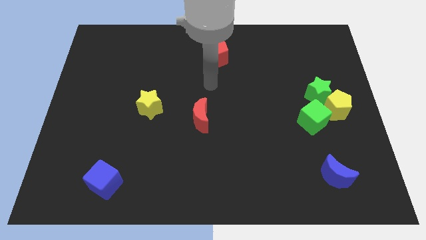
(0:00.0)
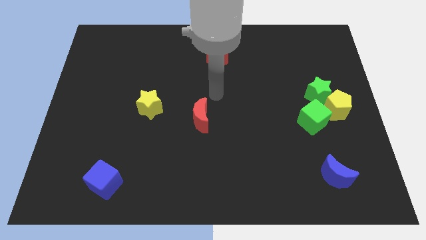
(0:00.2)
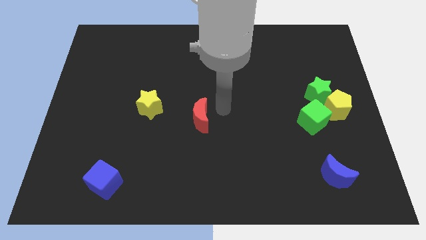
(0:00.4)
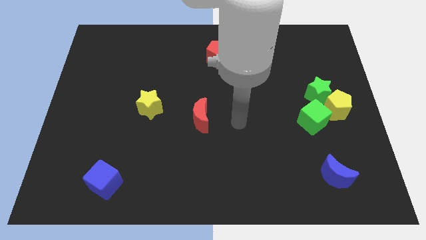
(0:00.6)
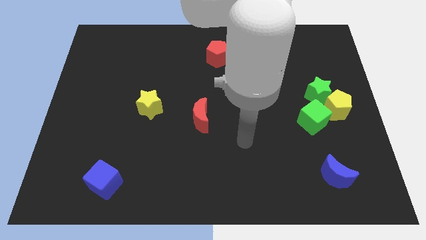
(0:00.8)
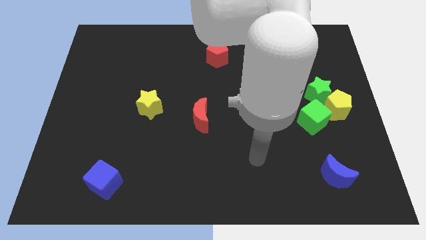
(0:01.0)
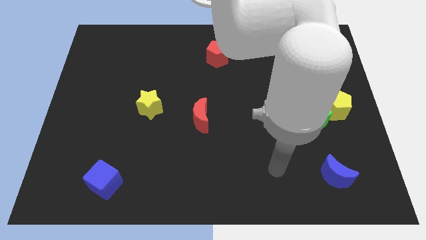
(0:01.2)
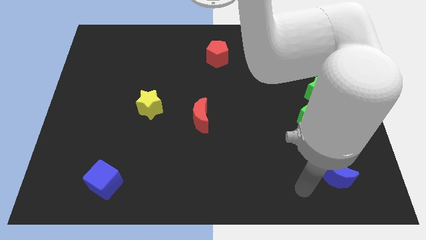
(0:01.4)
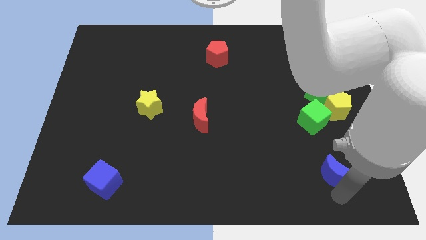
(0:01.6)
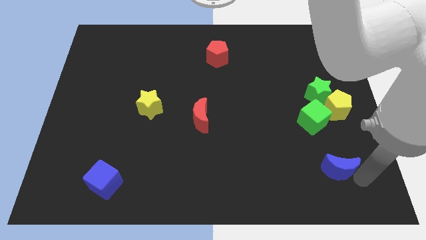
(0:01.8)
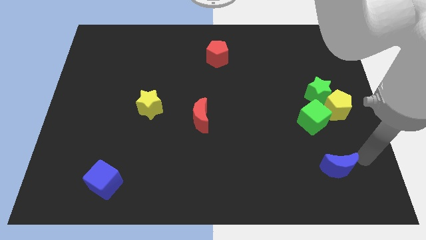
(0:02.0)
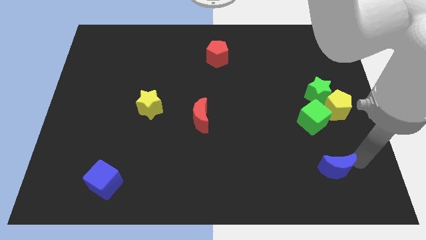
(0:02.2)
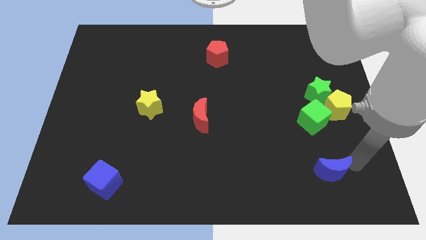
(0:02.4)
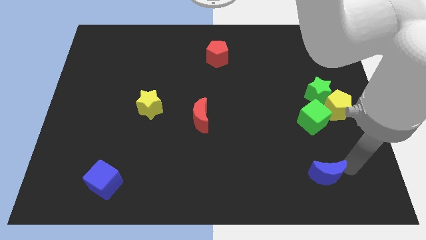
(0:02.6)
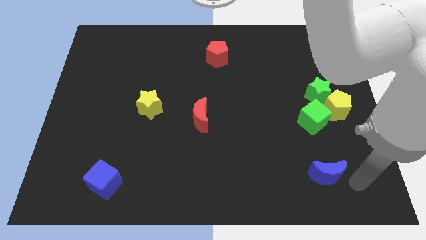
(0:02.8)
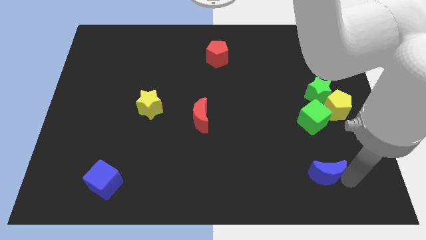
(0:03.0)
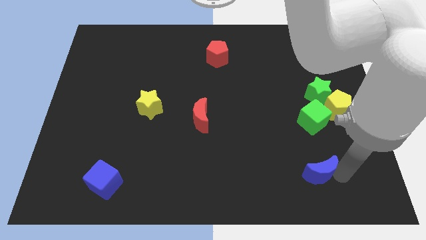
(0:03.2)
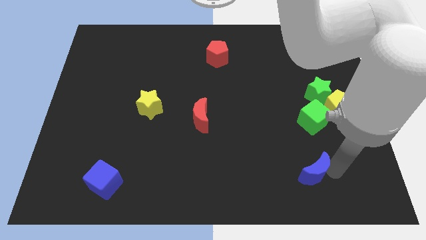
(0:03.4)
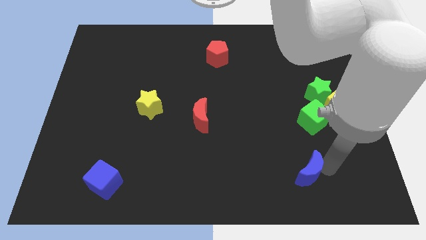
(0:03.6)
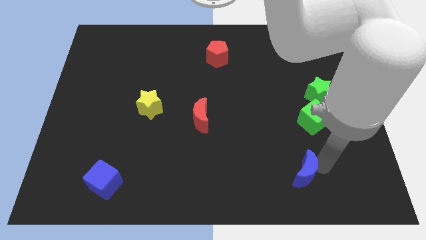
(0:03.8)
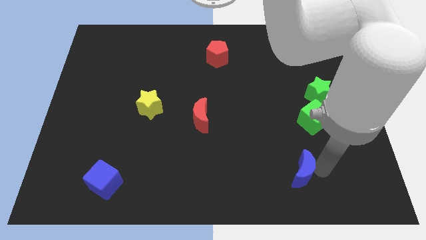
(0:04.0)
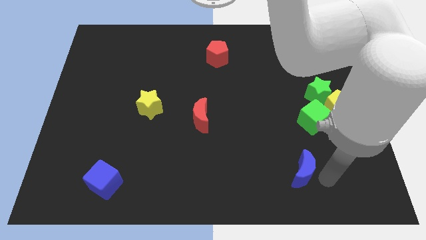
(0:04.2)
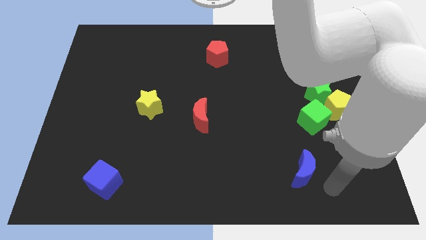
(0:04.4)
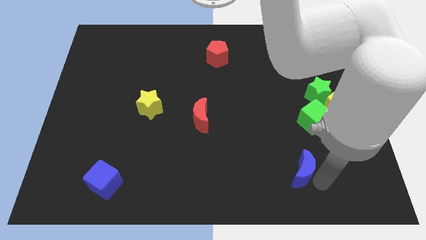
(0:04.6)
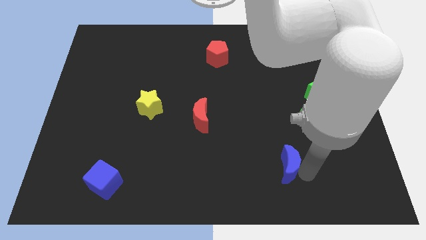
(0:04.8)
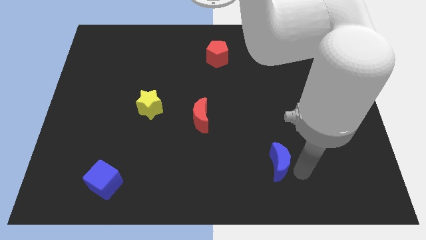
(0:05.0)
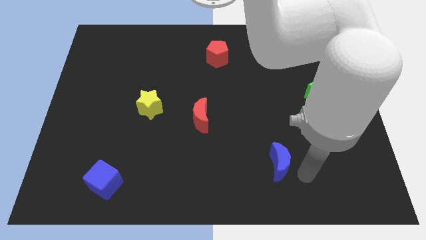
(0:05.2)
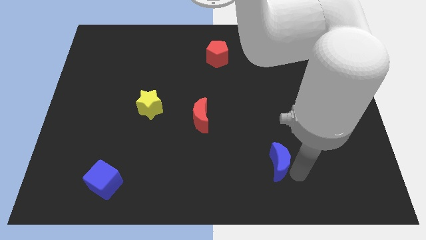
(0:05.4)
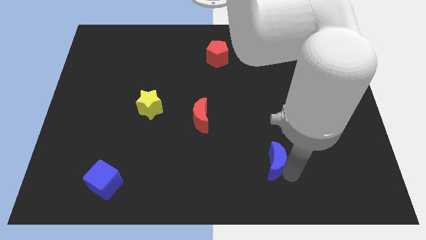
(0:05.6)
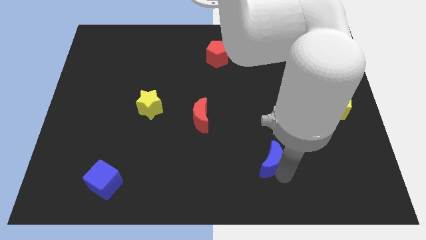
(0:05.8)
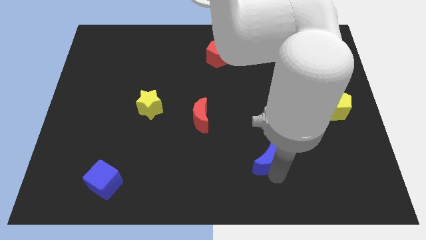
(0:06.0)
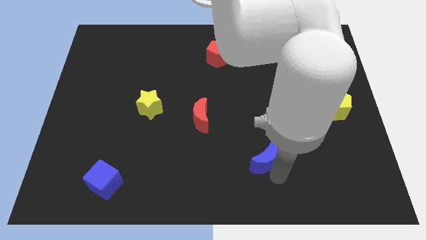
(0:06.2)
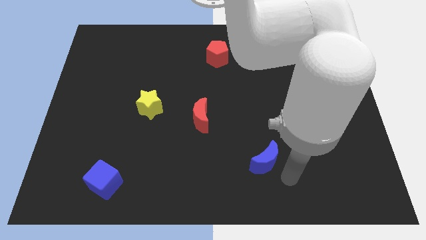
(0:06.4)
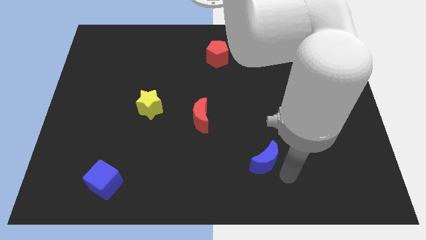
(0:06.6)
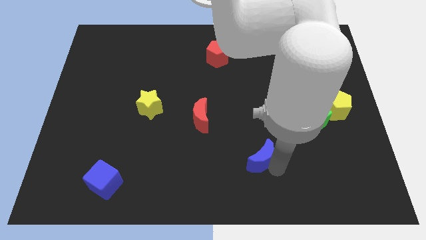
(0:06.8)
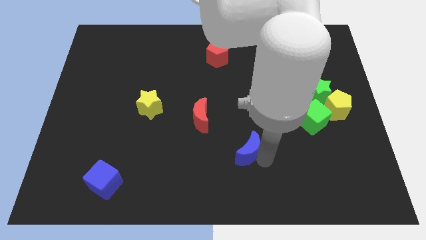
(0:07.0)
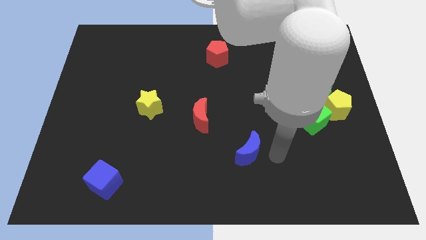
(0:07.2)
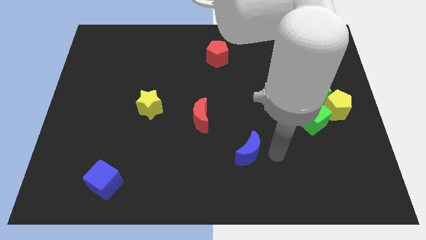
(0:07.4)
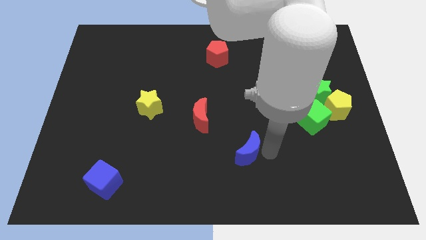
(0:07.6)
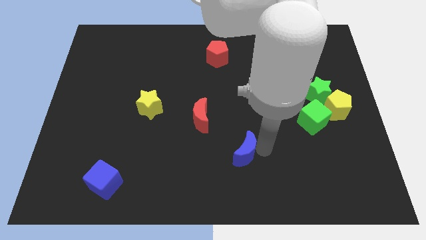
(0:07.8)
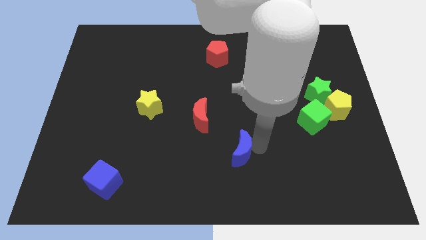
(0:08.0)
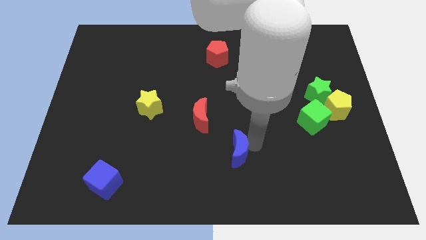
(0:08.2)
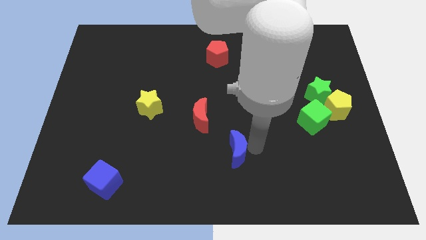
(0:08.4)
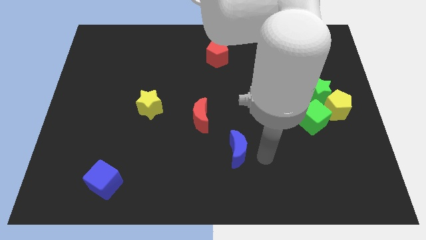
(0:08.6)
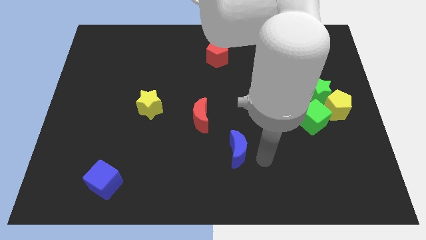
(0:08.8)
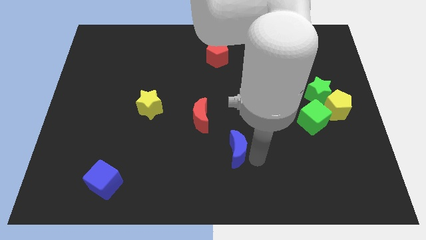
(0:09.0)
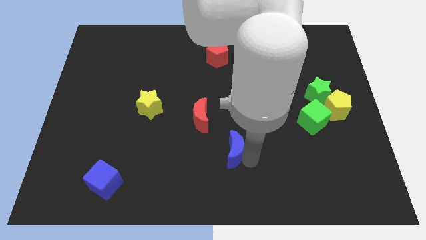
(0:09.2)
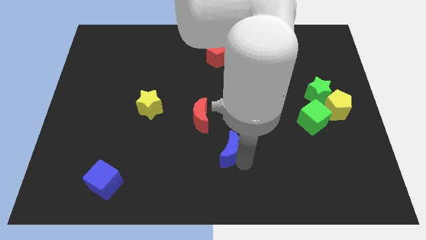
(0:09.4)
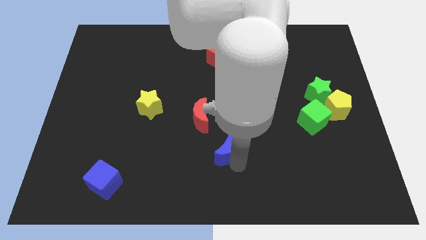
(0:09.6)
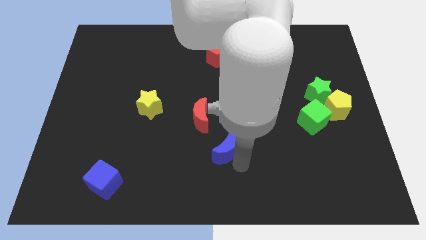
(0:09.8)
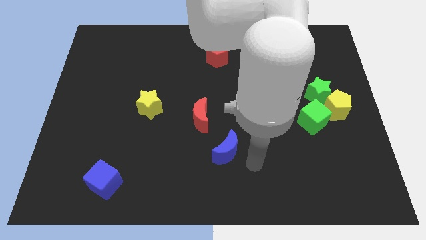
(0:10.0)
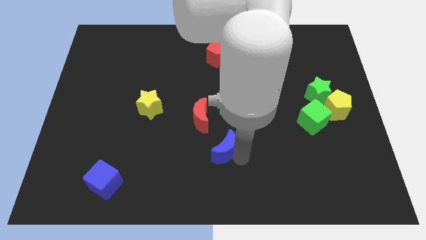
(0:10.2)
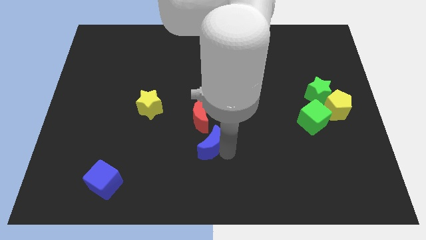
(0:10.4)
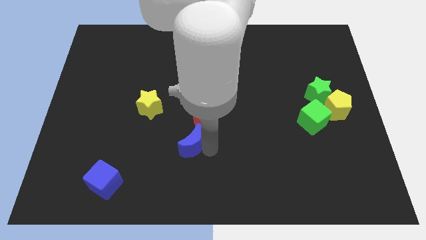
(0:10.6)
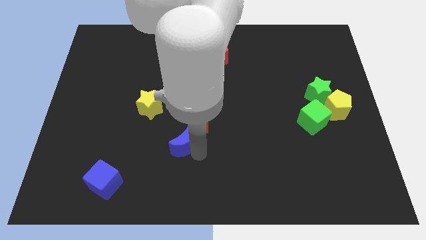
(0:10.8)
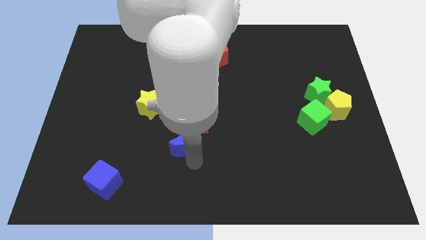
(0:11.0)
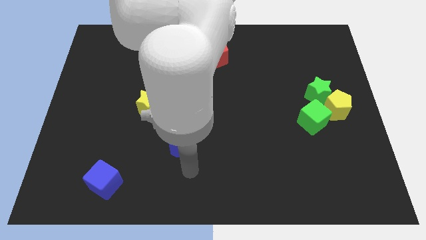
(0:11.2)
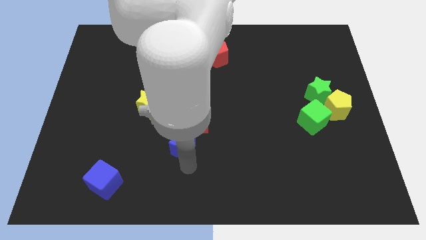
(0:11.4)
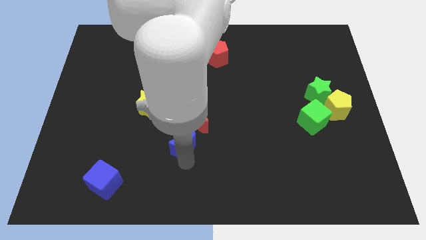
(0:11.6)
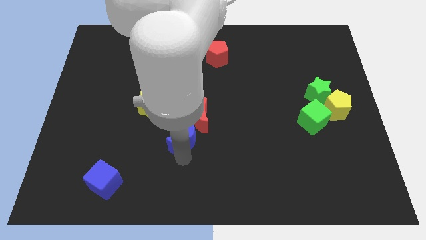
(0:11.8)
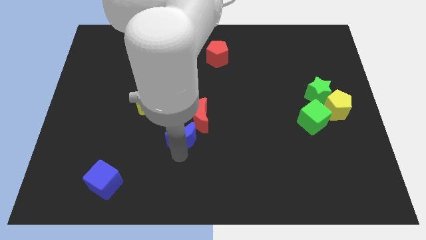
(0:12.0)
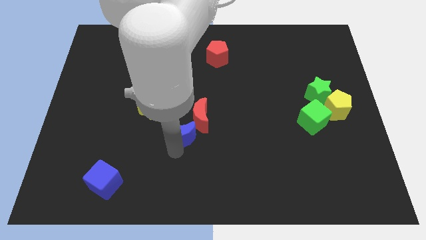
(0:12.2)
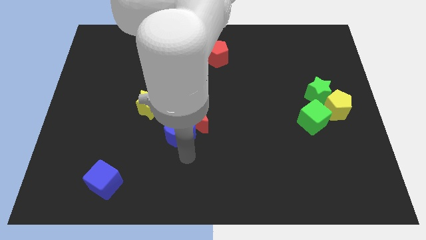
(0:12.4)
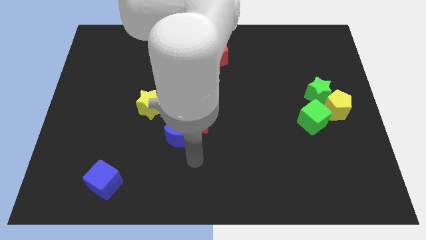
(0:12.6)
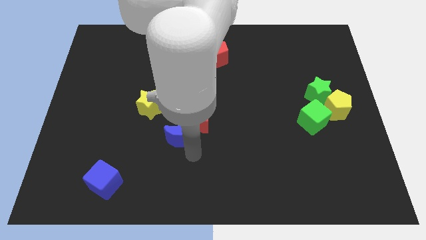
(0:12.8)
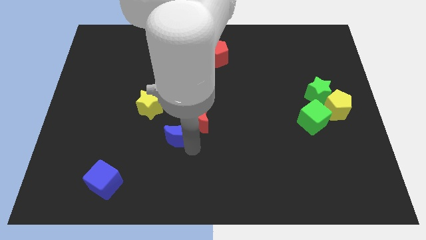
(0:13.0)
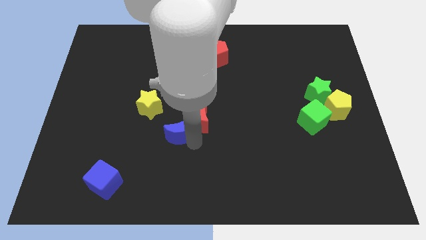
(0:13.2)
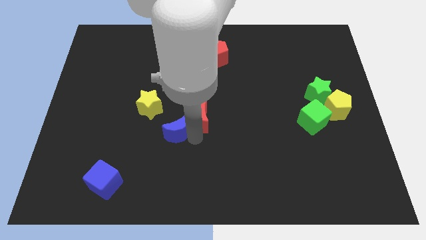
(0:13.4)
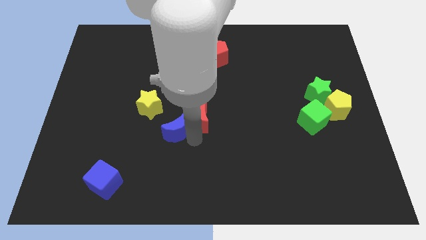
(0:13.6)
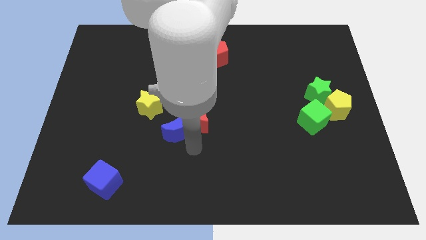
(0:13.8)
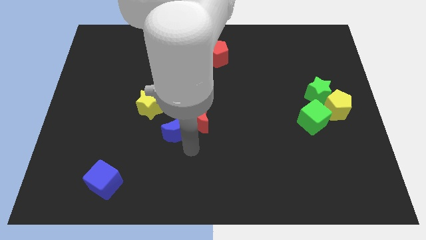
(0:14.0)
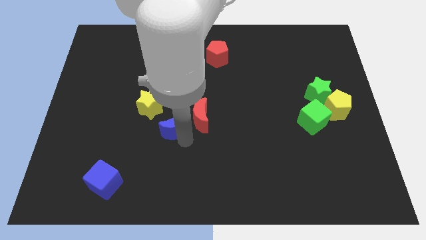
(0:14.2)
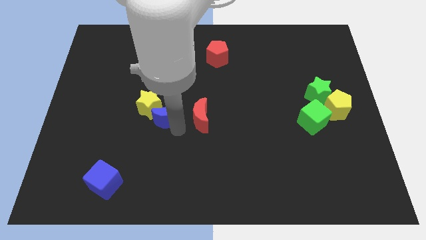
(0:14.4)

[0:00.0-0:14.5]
move the blue moon next to the yellow star
